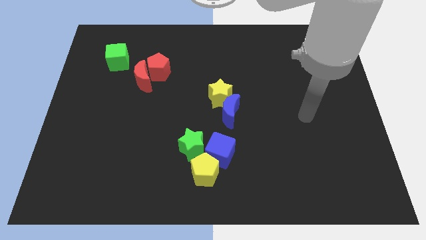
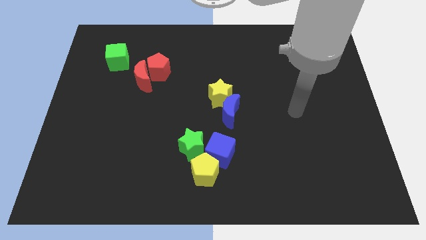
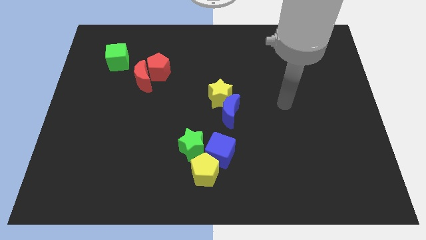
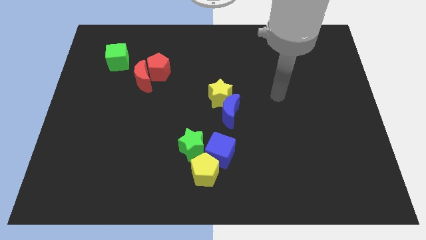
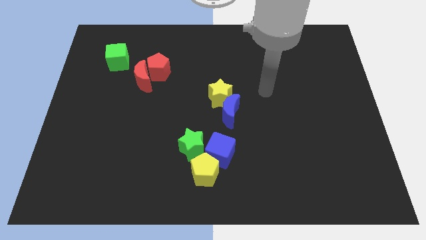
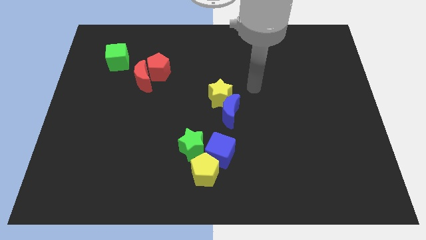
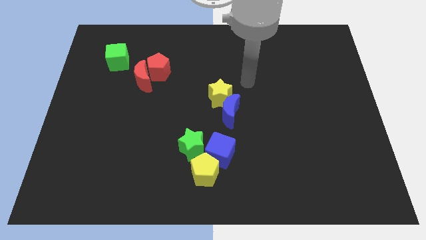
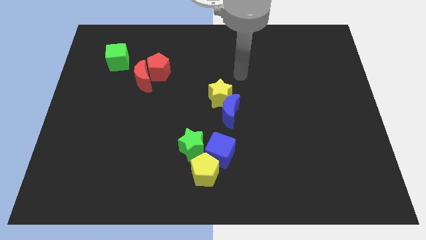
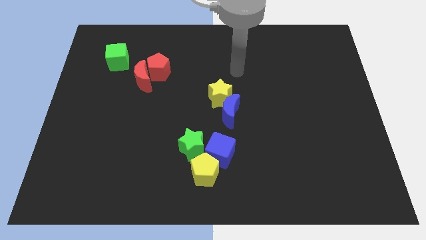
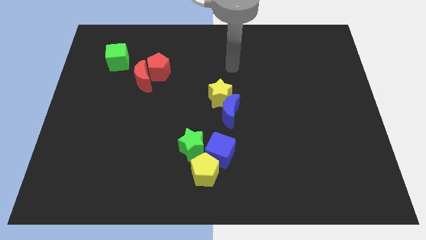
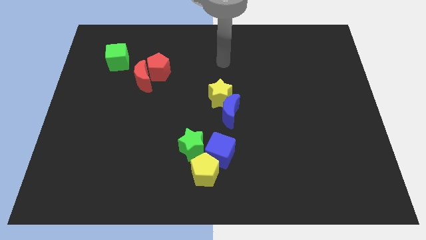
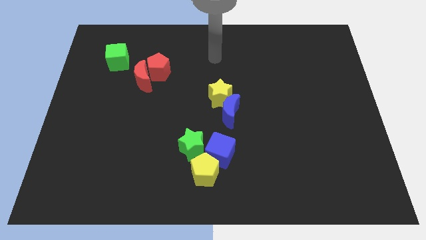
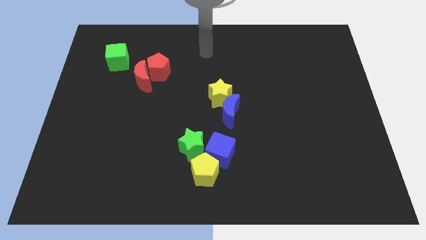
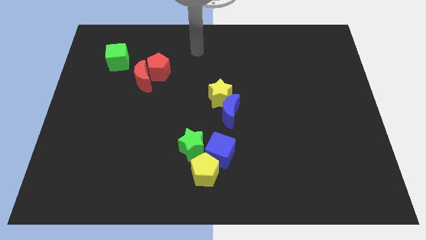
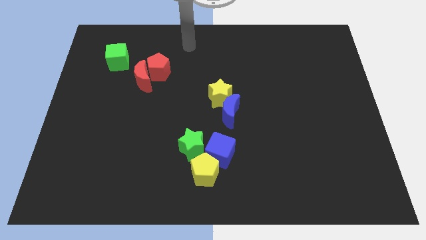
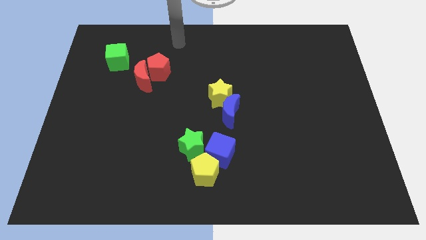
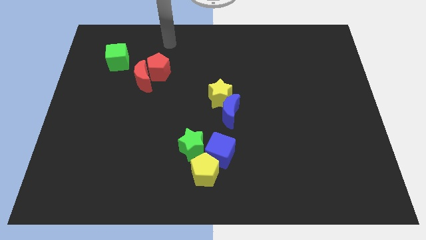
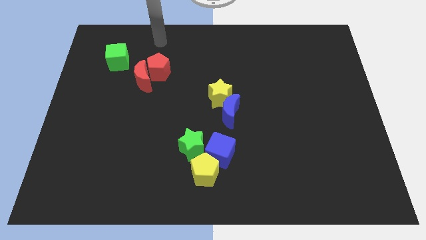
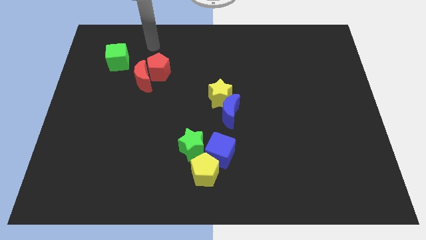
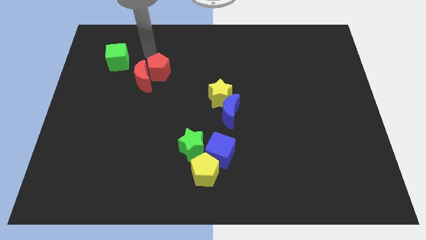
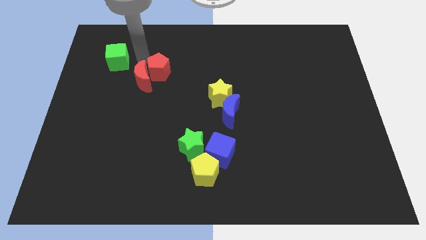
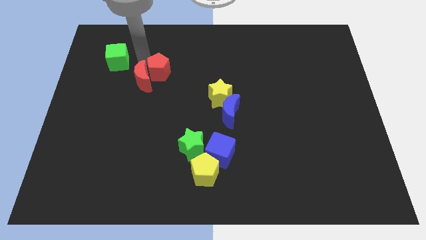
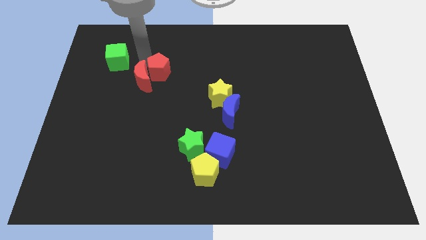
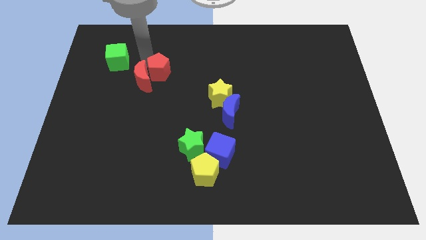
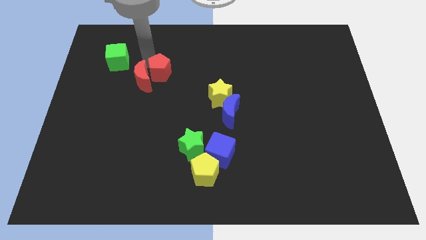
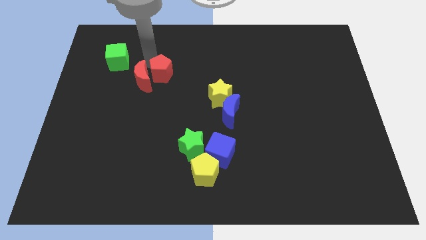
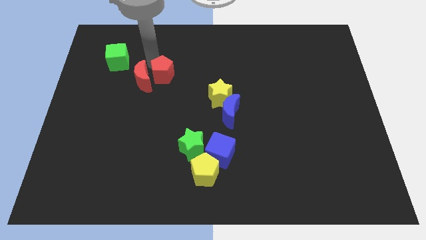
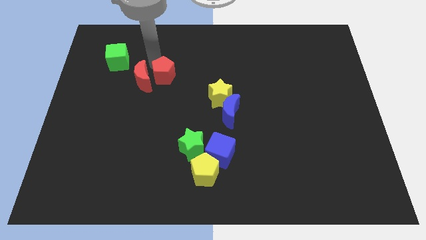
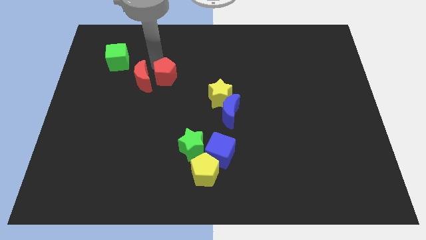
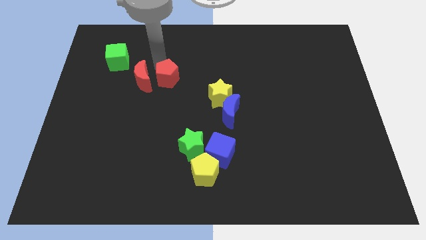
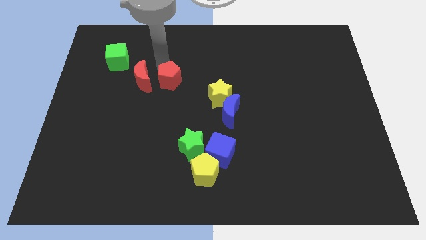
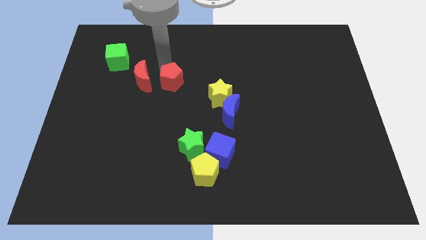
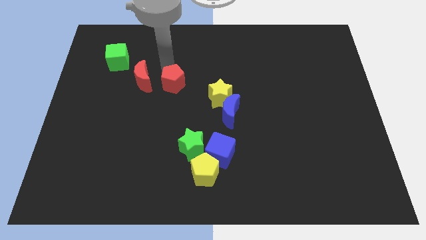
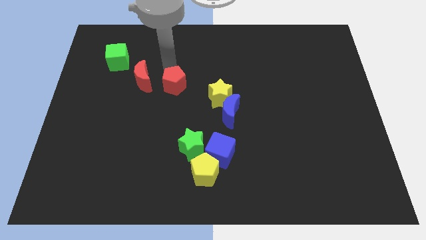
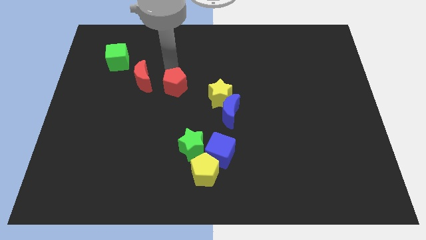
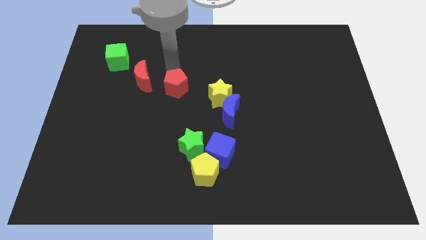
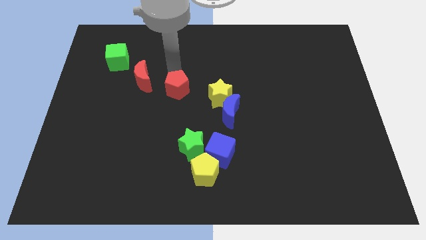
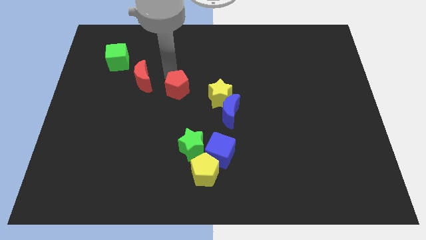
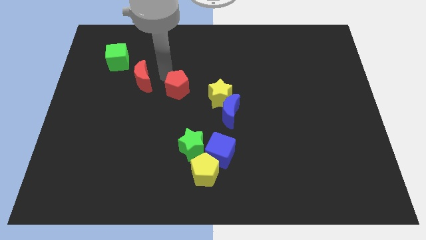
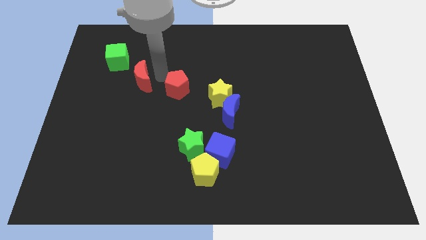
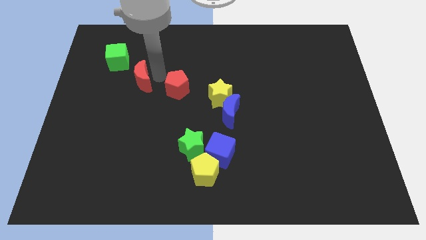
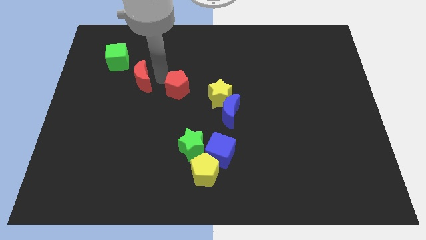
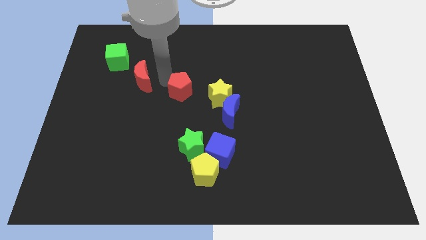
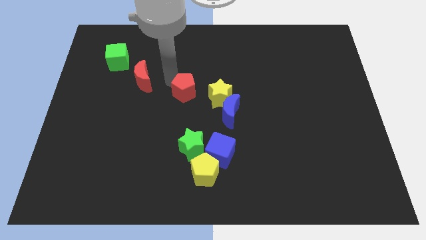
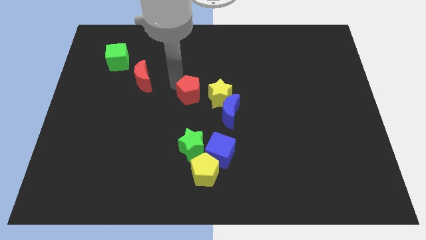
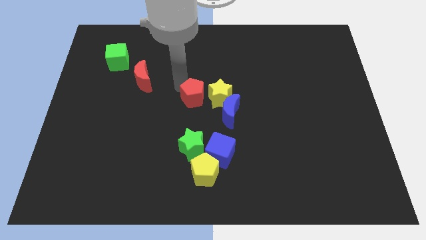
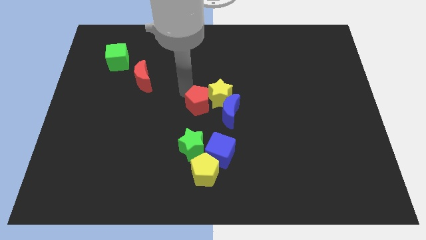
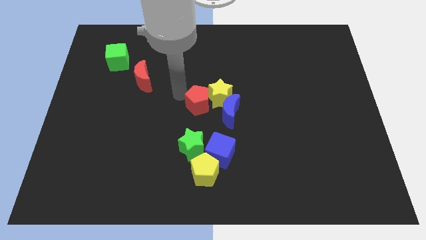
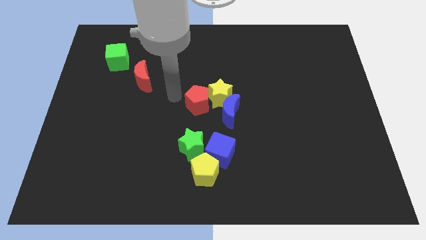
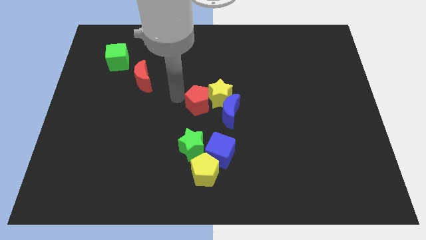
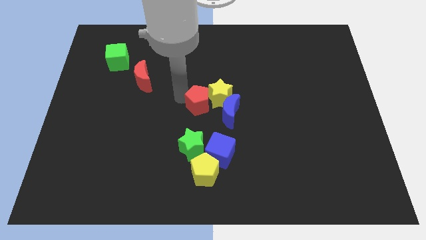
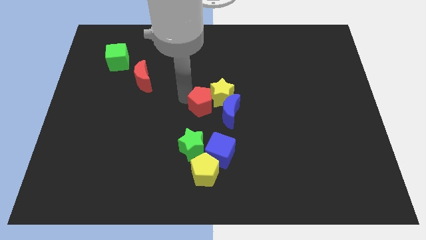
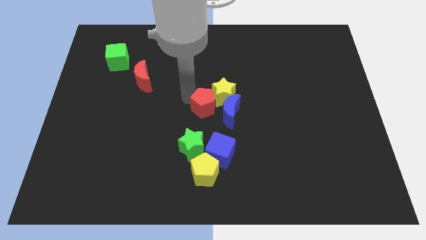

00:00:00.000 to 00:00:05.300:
put the red pentagon next to the blue moon
